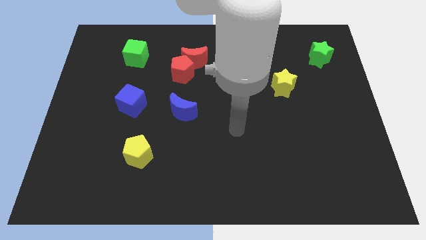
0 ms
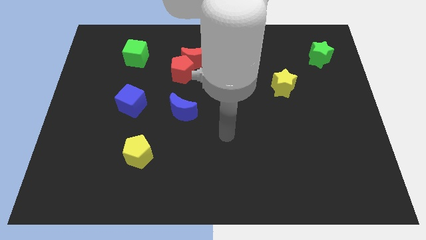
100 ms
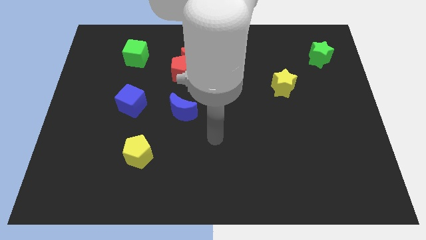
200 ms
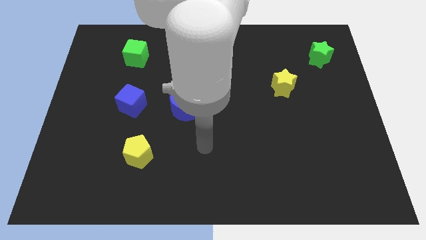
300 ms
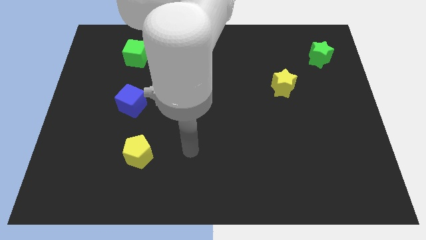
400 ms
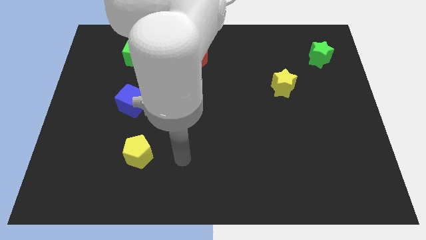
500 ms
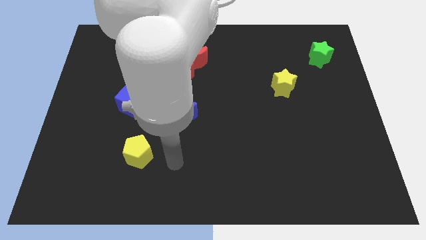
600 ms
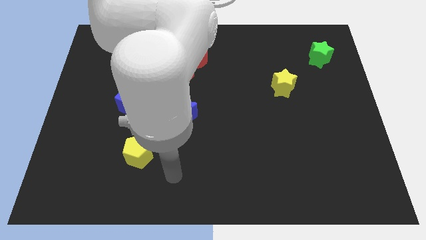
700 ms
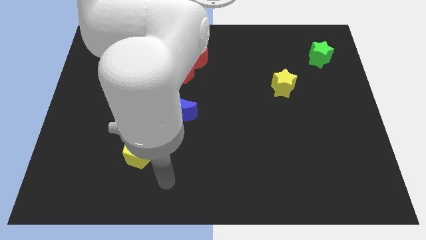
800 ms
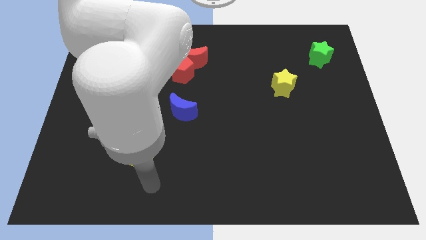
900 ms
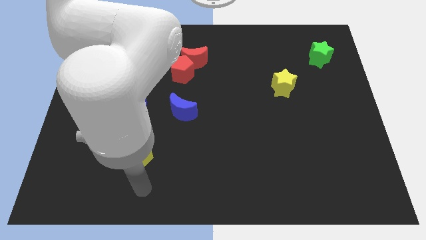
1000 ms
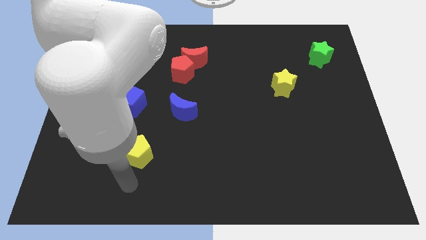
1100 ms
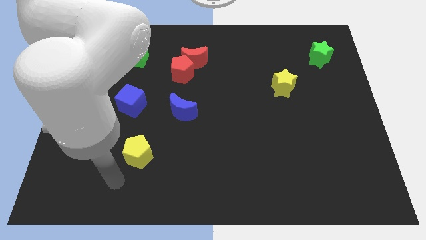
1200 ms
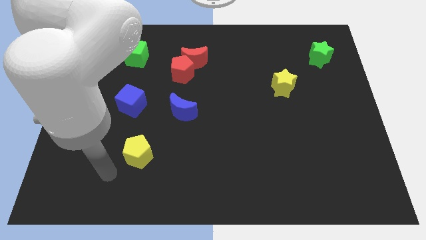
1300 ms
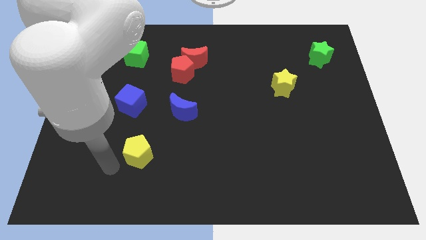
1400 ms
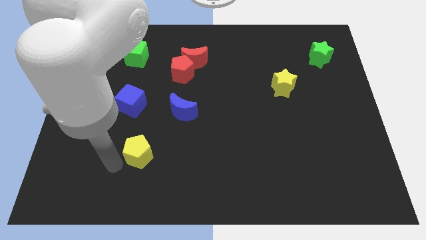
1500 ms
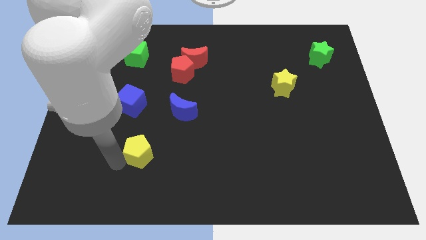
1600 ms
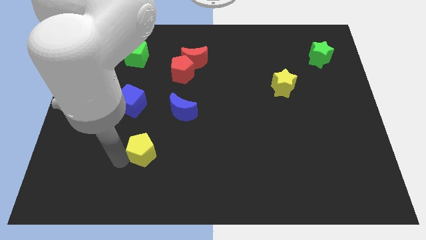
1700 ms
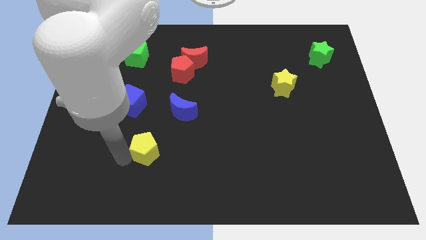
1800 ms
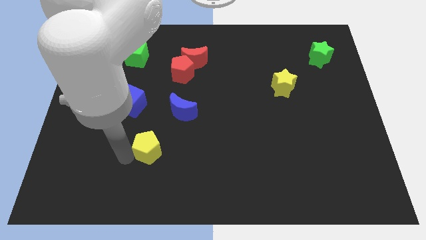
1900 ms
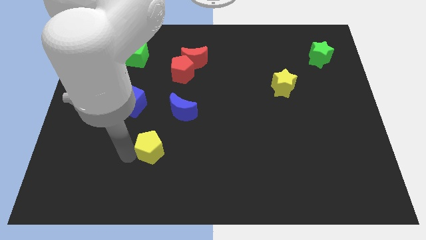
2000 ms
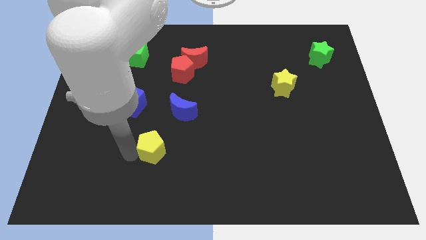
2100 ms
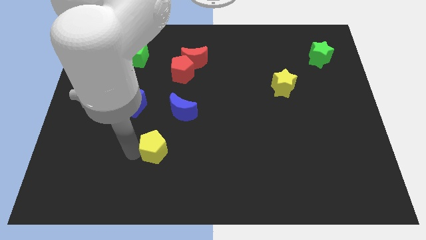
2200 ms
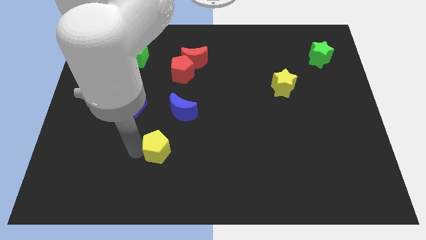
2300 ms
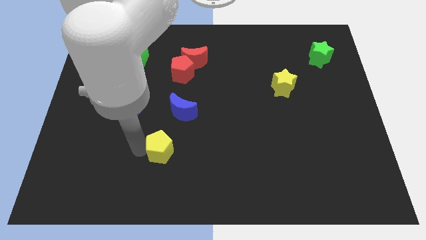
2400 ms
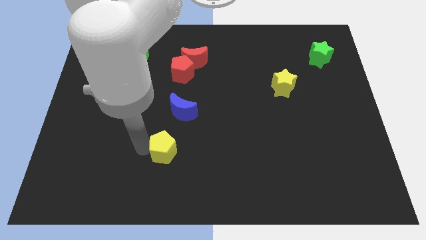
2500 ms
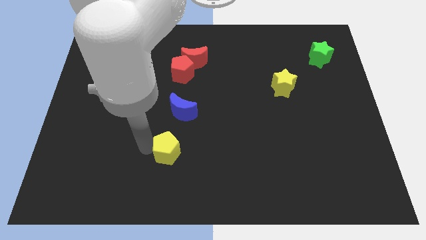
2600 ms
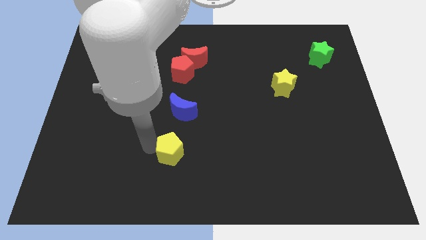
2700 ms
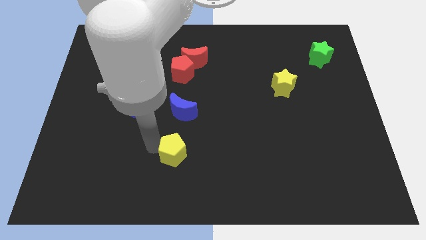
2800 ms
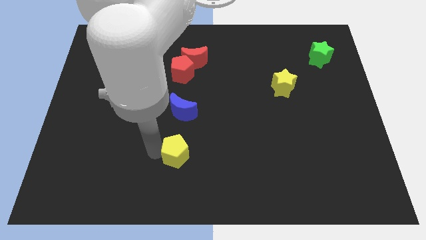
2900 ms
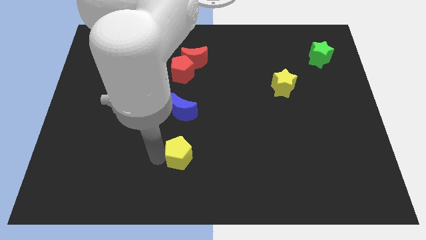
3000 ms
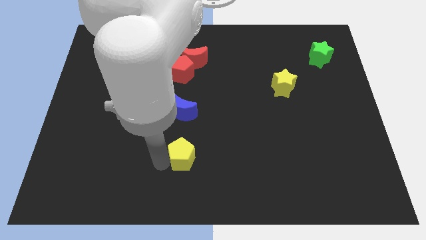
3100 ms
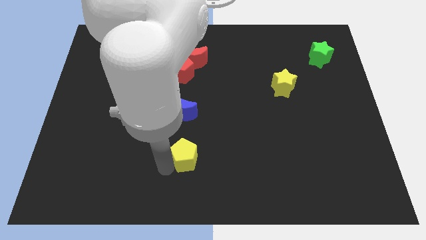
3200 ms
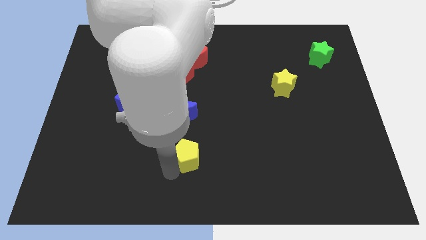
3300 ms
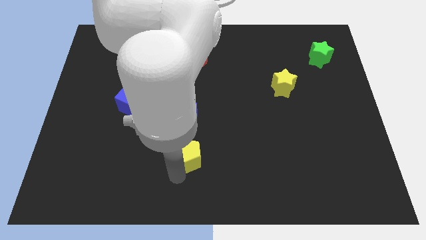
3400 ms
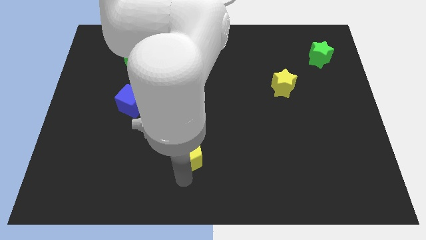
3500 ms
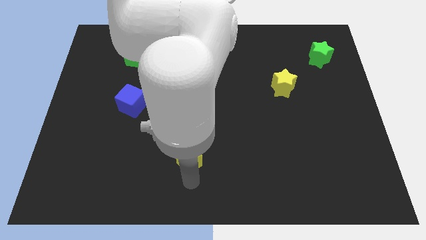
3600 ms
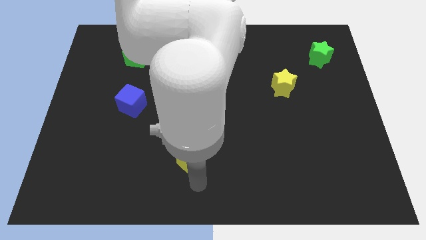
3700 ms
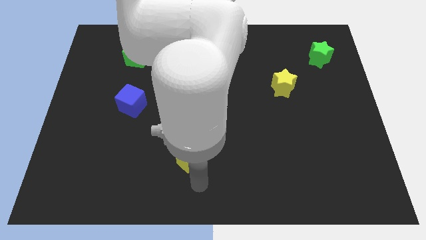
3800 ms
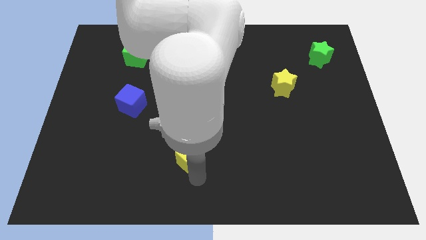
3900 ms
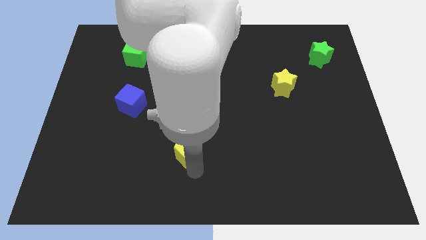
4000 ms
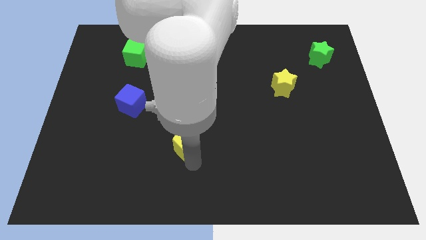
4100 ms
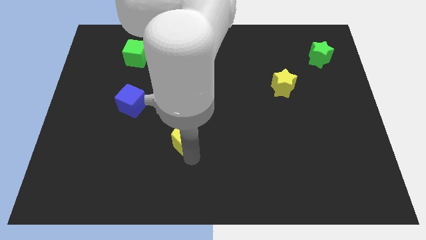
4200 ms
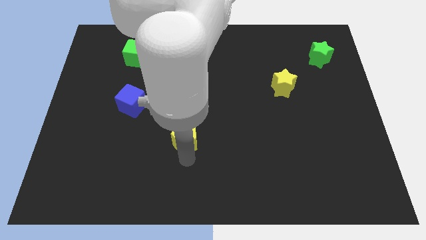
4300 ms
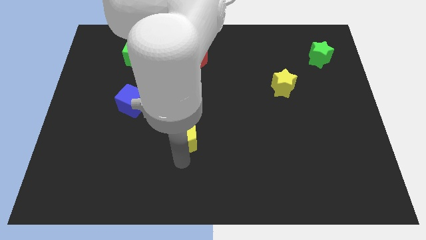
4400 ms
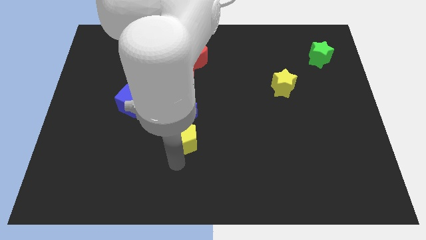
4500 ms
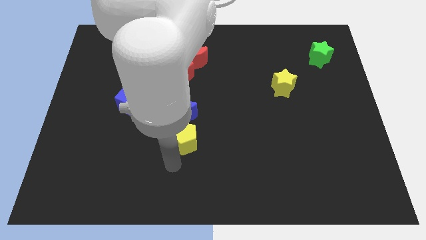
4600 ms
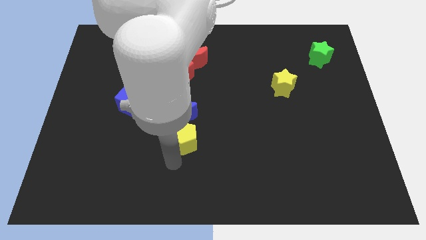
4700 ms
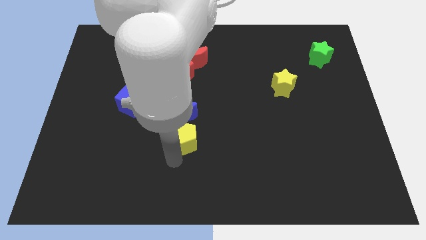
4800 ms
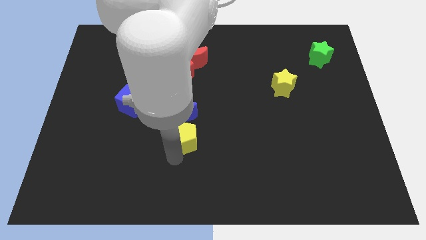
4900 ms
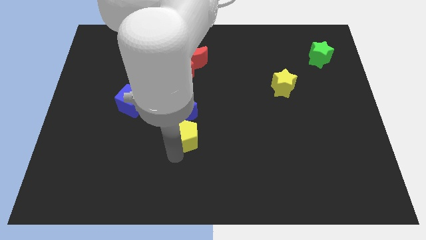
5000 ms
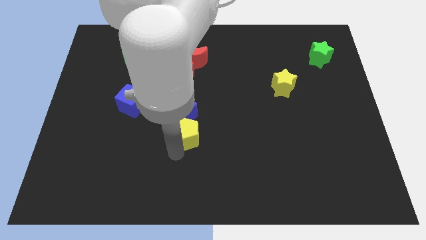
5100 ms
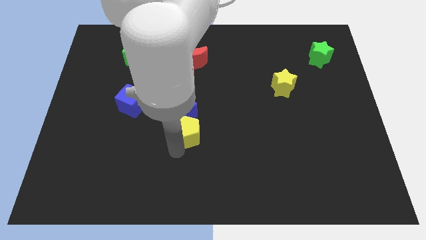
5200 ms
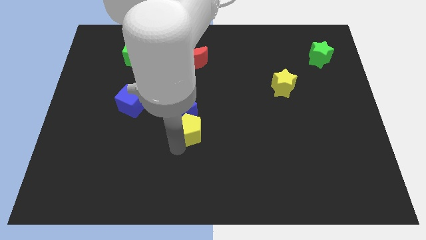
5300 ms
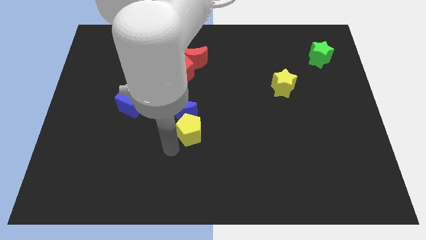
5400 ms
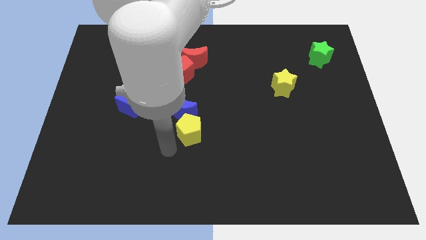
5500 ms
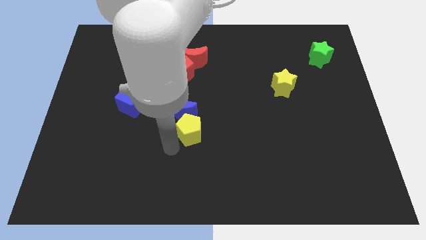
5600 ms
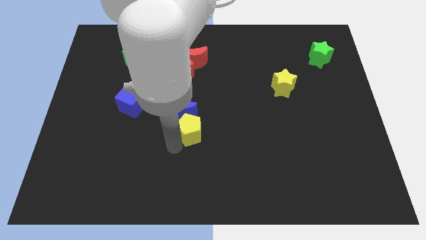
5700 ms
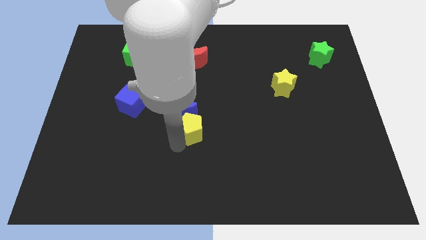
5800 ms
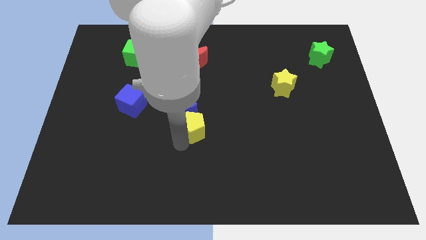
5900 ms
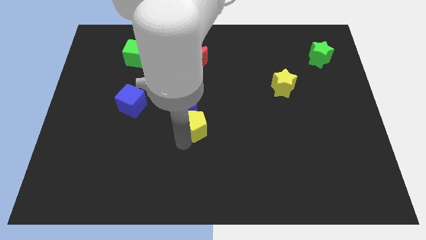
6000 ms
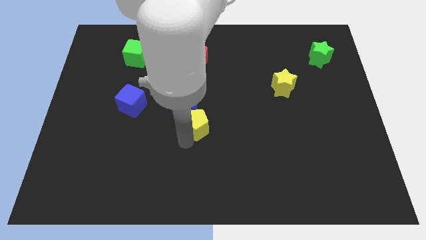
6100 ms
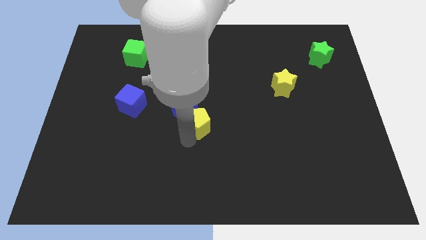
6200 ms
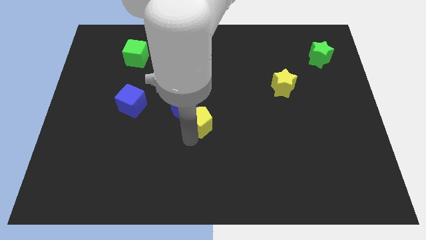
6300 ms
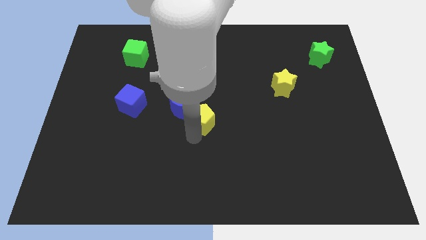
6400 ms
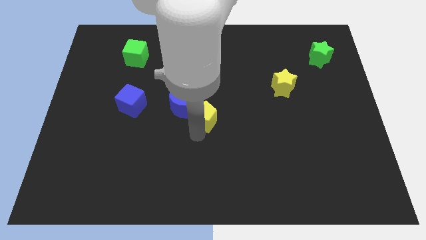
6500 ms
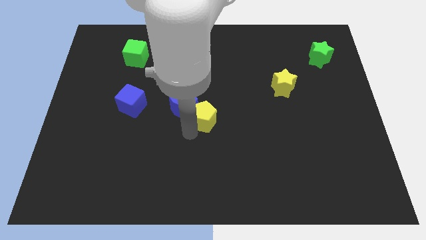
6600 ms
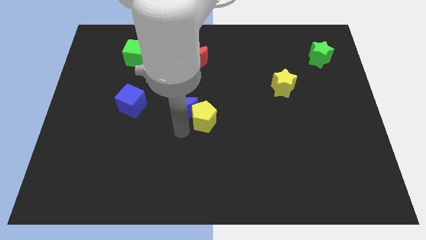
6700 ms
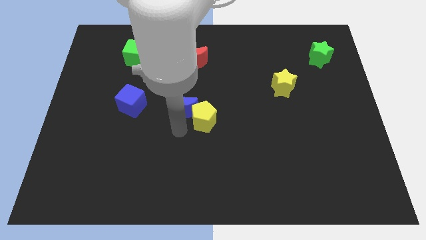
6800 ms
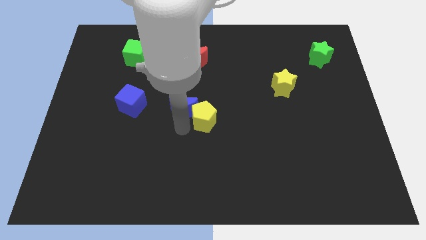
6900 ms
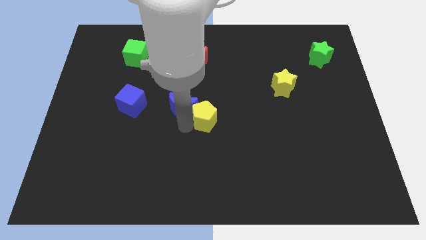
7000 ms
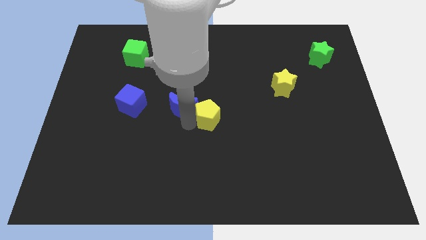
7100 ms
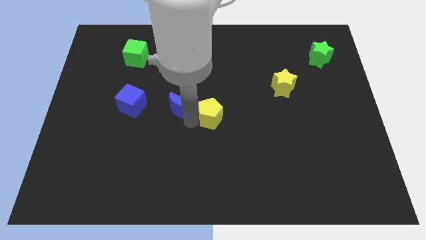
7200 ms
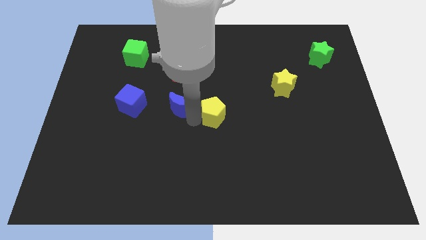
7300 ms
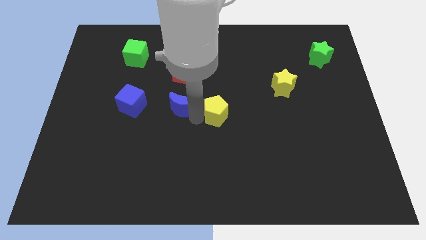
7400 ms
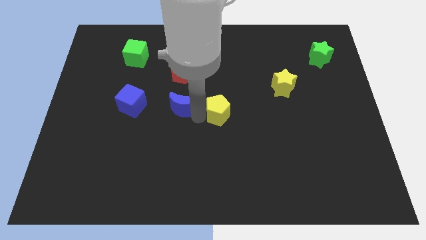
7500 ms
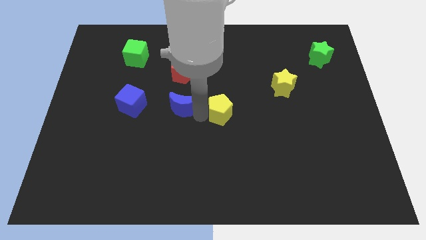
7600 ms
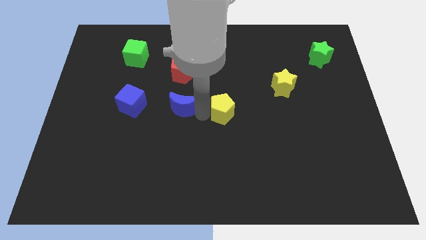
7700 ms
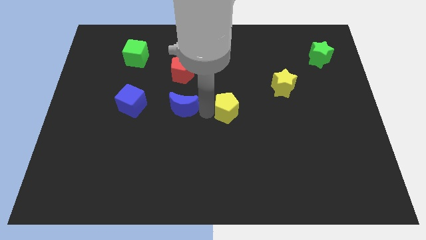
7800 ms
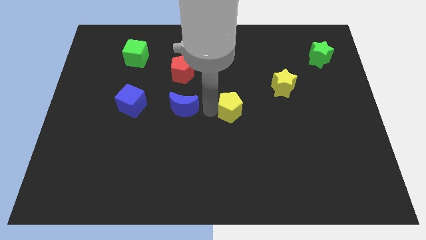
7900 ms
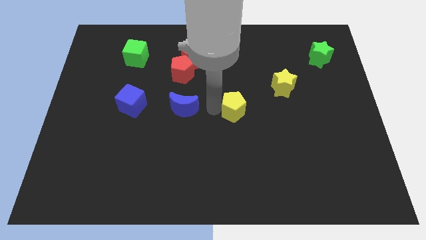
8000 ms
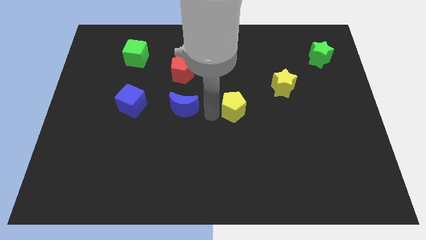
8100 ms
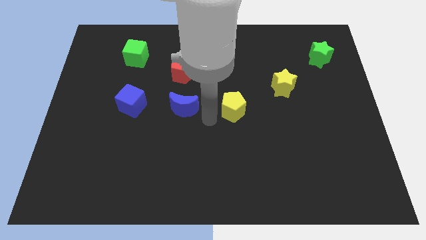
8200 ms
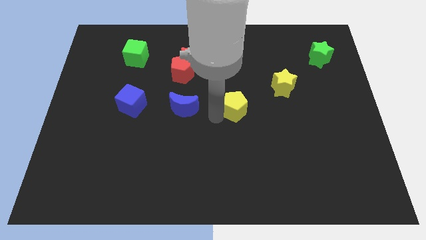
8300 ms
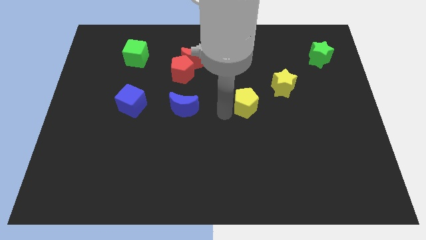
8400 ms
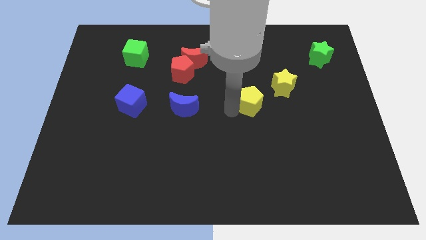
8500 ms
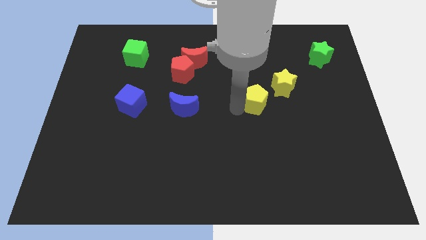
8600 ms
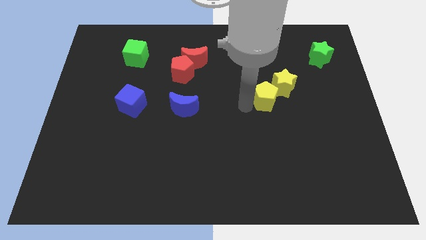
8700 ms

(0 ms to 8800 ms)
push the yellow pentagon next to the yellow star
